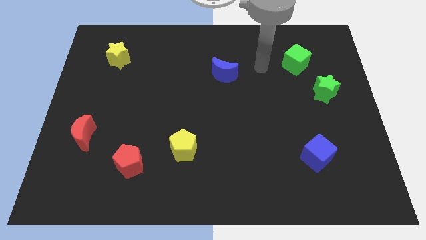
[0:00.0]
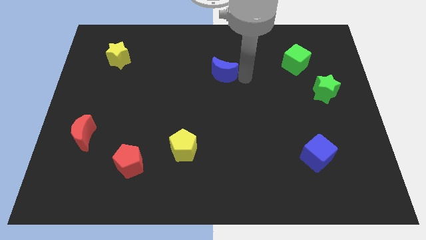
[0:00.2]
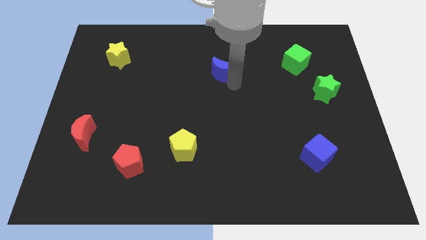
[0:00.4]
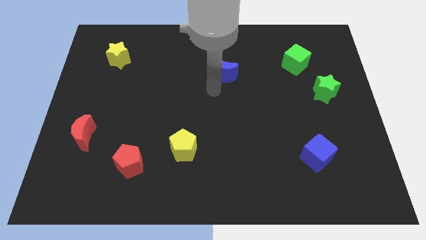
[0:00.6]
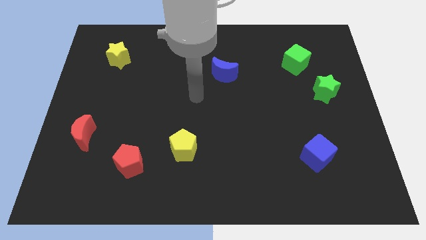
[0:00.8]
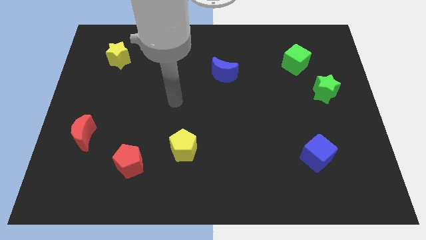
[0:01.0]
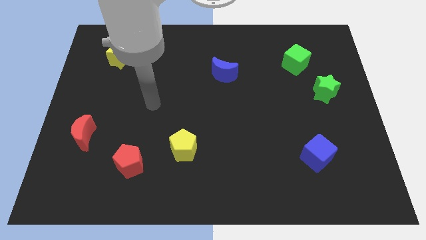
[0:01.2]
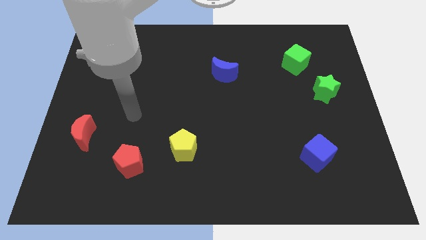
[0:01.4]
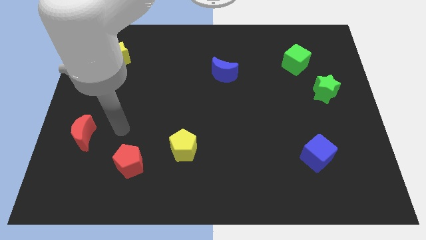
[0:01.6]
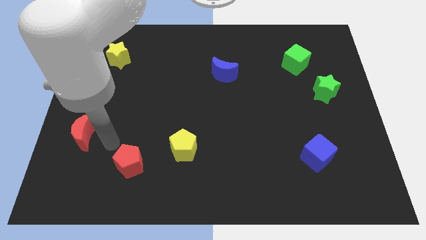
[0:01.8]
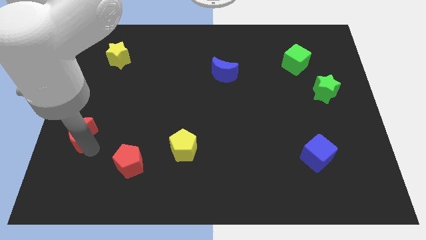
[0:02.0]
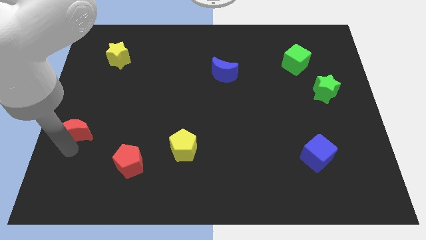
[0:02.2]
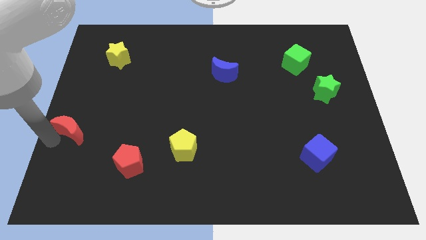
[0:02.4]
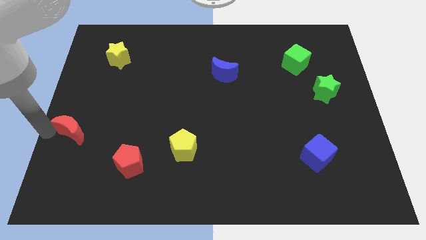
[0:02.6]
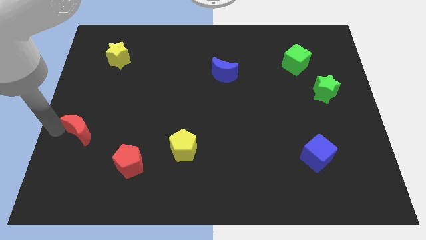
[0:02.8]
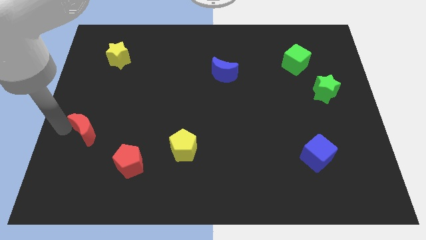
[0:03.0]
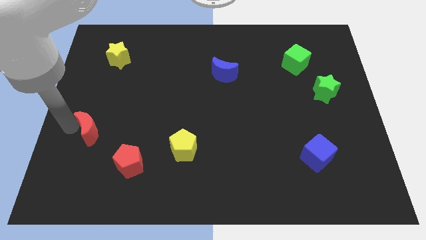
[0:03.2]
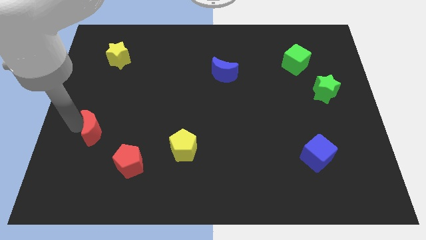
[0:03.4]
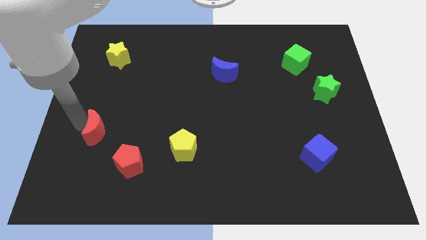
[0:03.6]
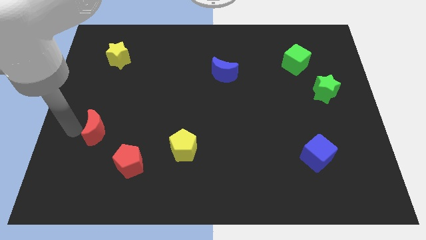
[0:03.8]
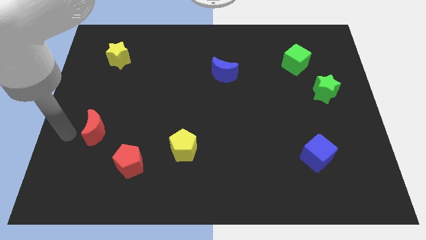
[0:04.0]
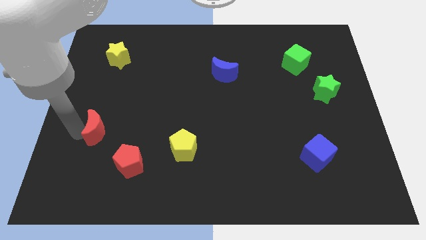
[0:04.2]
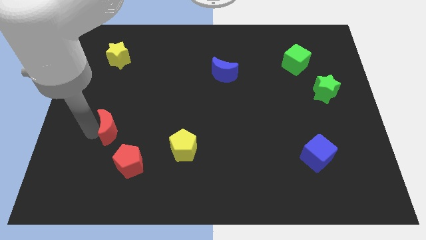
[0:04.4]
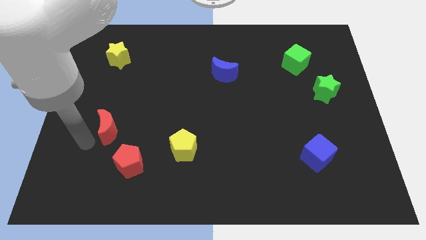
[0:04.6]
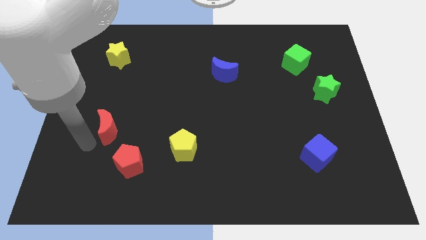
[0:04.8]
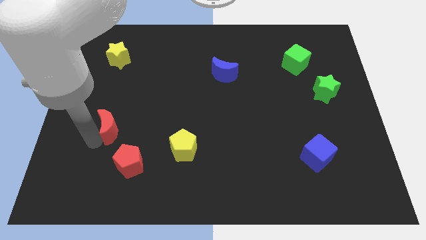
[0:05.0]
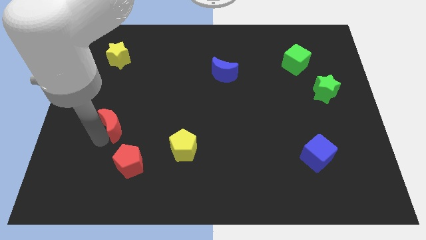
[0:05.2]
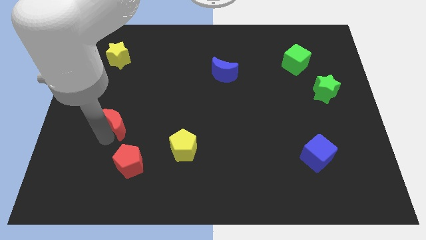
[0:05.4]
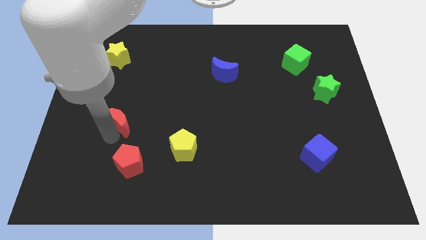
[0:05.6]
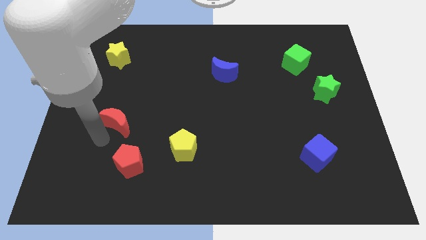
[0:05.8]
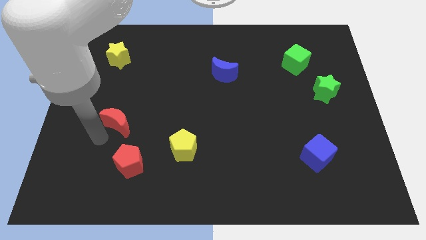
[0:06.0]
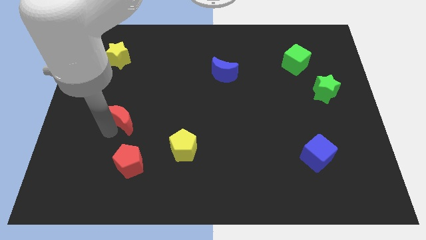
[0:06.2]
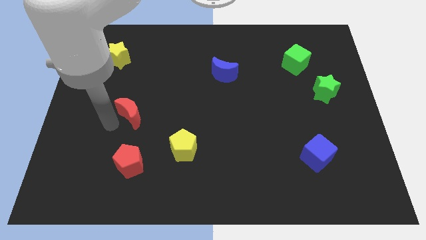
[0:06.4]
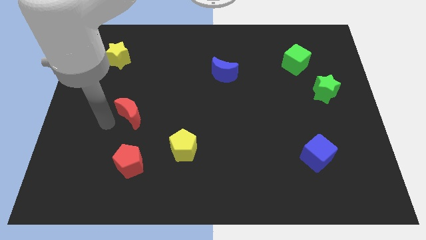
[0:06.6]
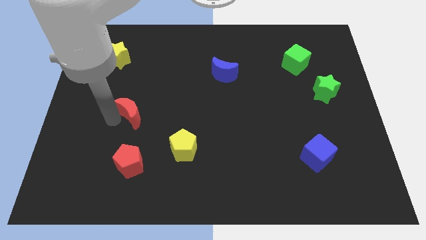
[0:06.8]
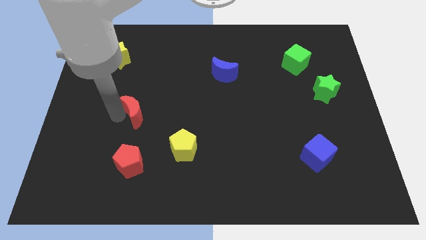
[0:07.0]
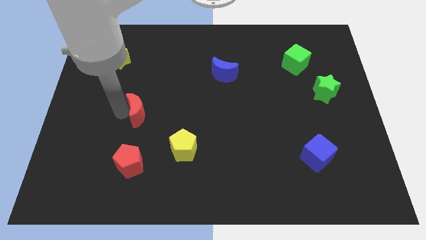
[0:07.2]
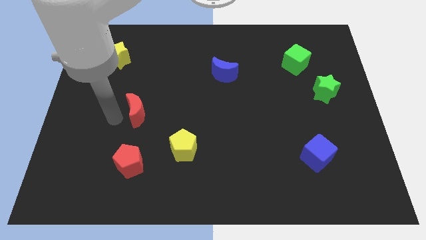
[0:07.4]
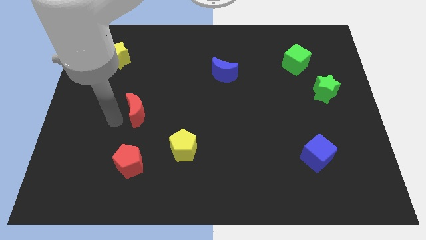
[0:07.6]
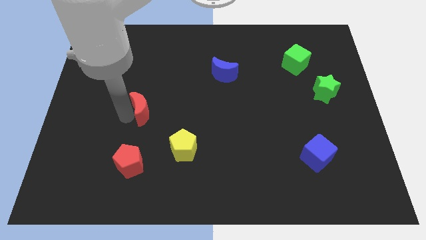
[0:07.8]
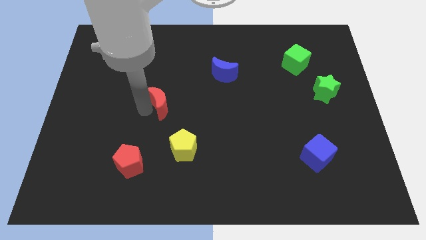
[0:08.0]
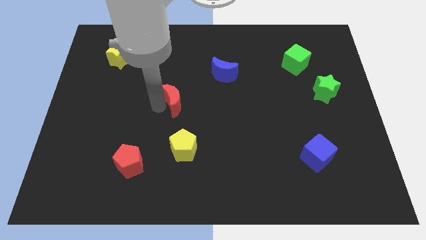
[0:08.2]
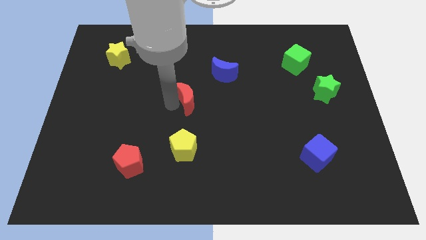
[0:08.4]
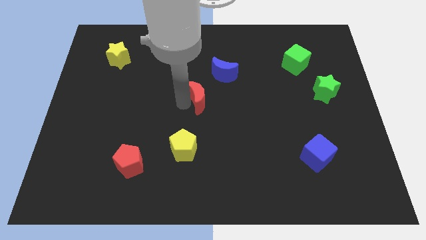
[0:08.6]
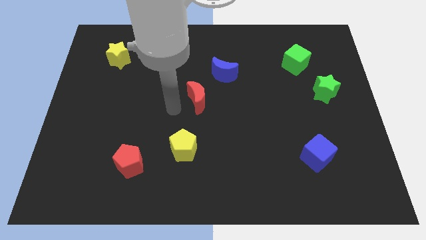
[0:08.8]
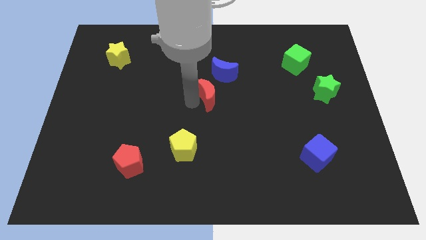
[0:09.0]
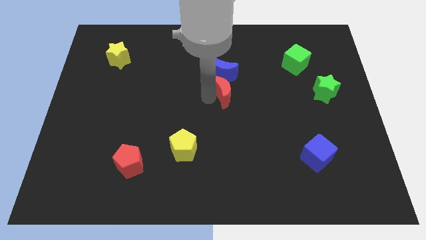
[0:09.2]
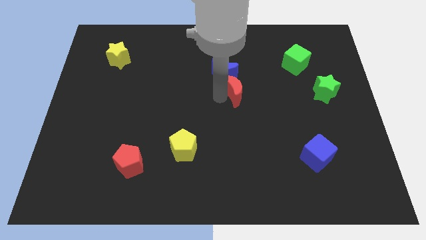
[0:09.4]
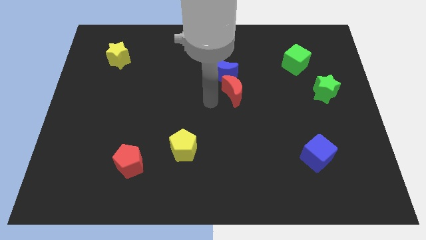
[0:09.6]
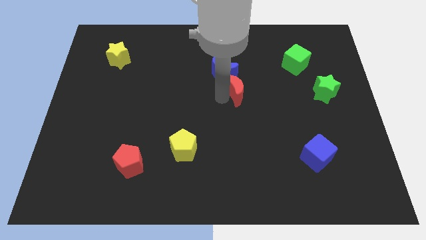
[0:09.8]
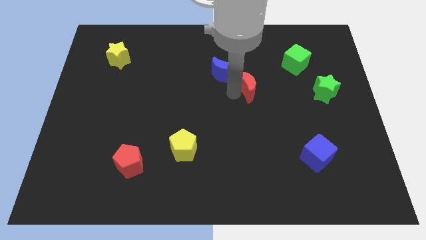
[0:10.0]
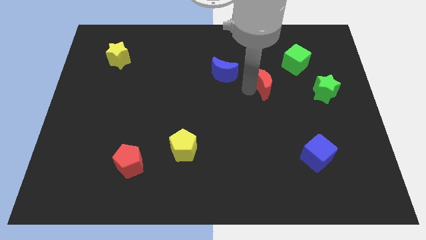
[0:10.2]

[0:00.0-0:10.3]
push the red moon to the bottom left side of the green cube
